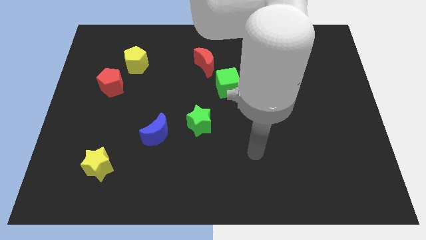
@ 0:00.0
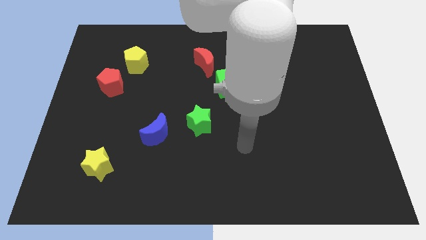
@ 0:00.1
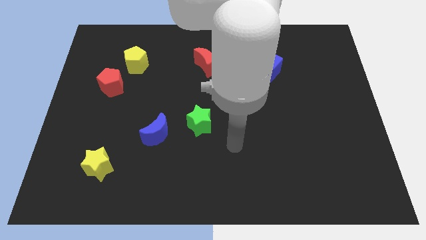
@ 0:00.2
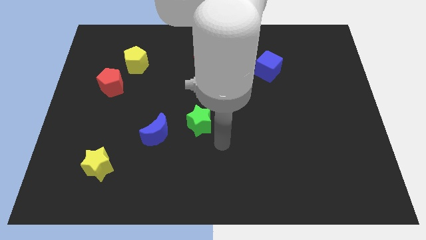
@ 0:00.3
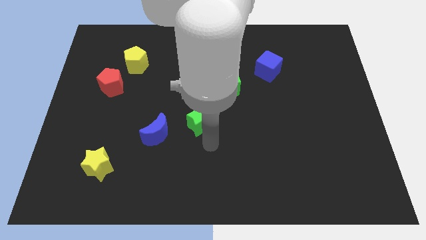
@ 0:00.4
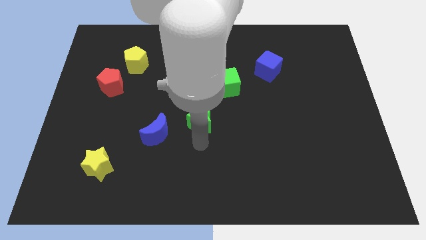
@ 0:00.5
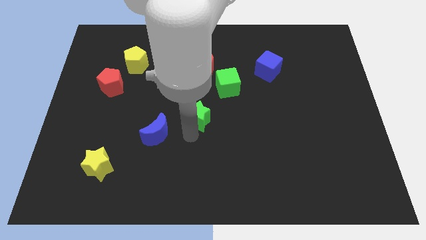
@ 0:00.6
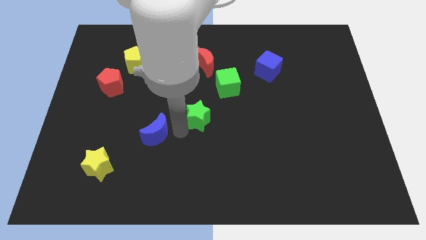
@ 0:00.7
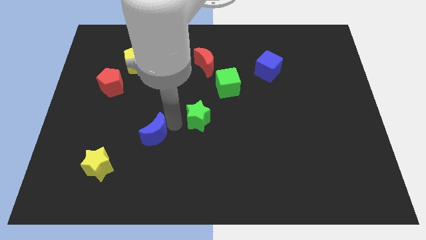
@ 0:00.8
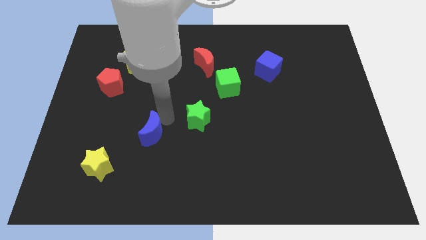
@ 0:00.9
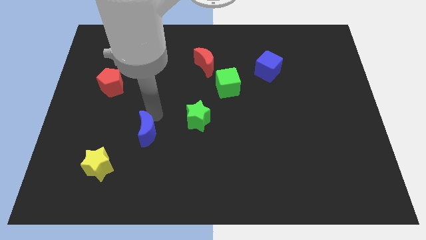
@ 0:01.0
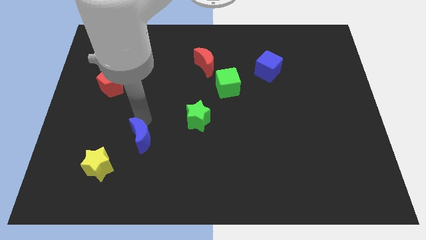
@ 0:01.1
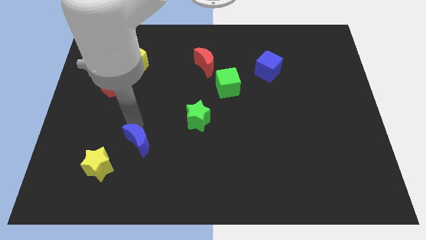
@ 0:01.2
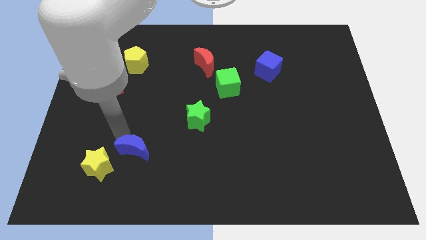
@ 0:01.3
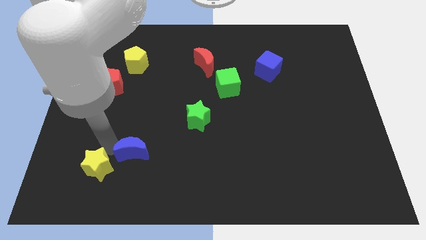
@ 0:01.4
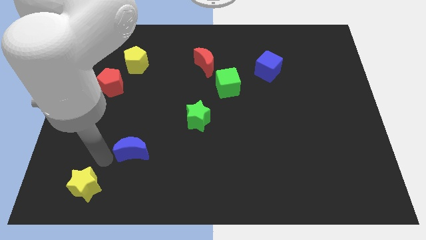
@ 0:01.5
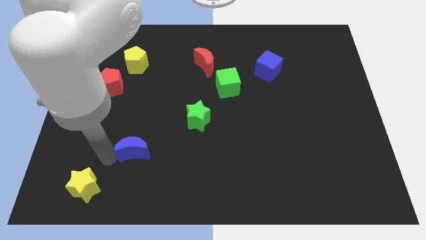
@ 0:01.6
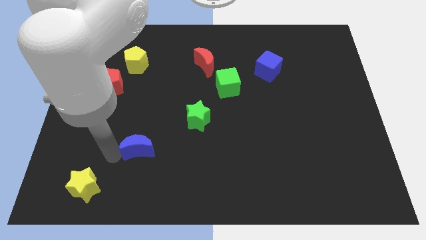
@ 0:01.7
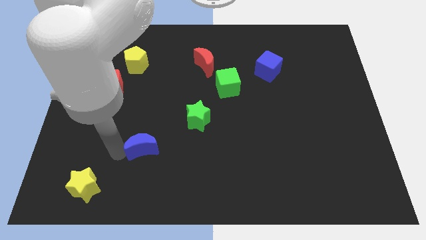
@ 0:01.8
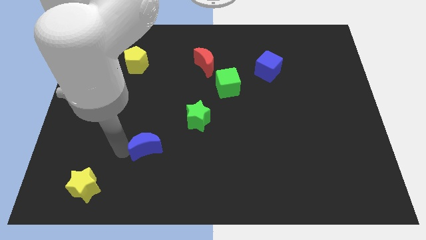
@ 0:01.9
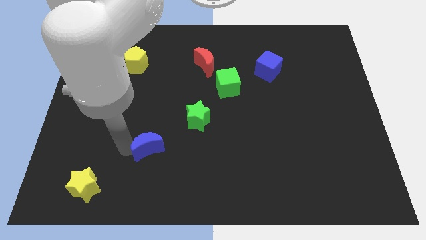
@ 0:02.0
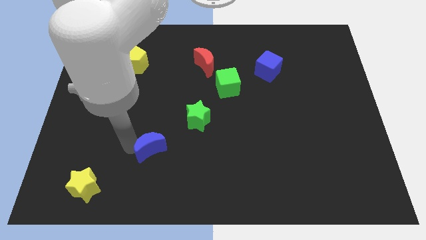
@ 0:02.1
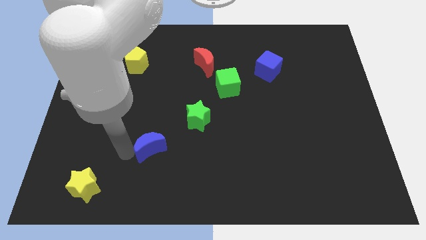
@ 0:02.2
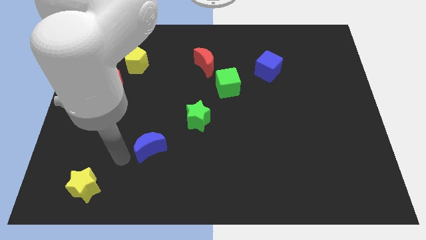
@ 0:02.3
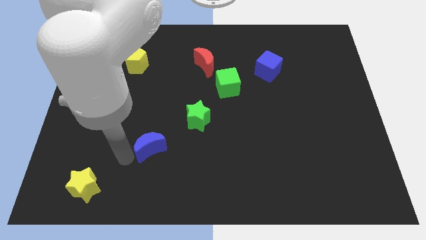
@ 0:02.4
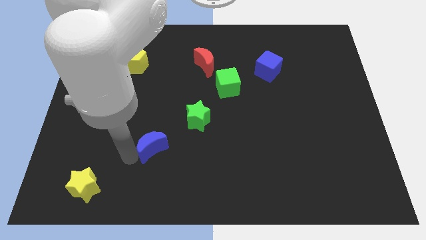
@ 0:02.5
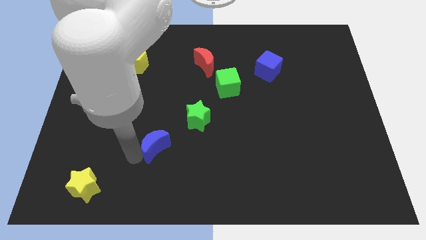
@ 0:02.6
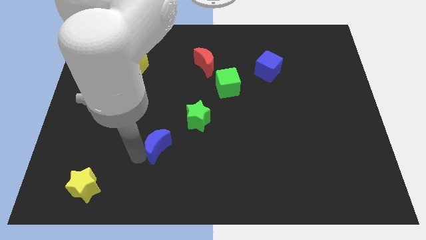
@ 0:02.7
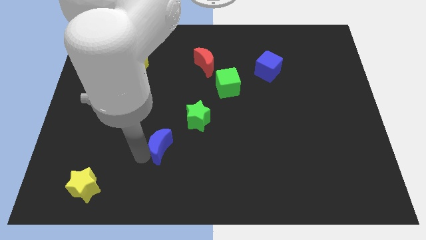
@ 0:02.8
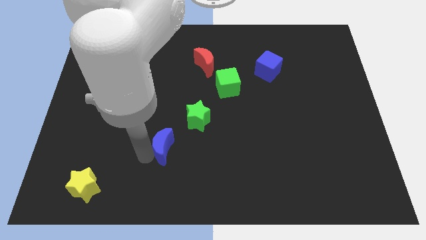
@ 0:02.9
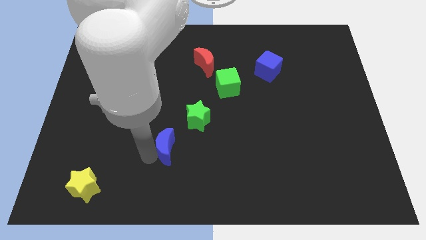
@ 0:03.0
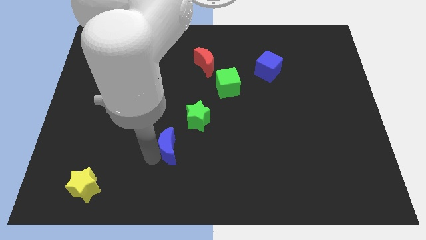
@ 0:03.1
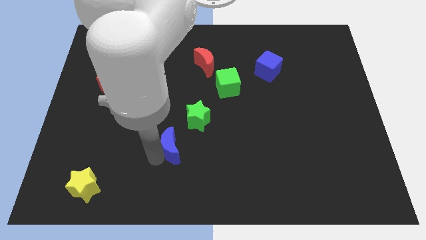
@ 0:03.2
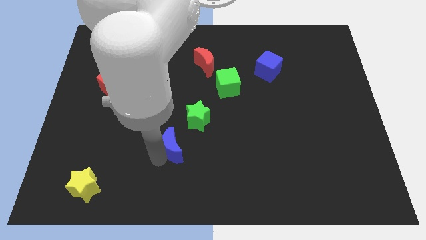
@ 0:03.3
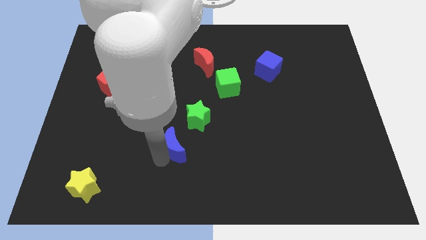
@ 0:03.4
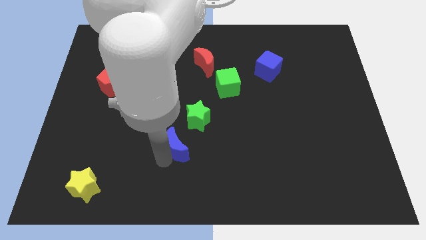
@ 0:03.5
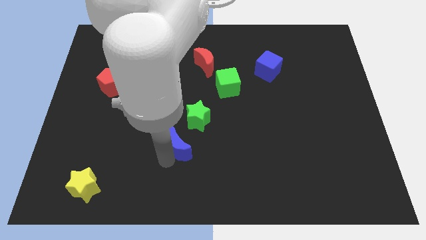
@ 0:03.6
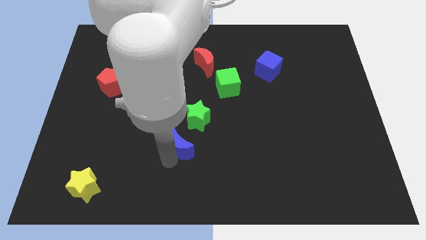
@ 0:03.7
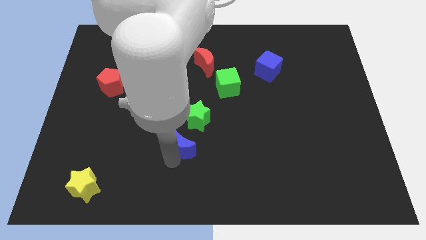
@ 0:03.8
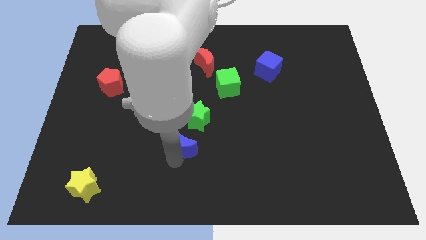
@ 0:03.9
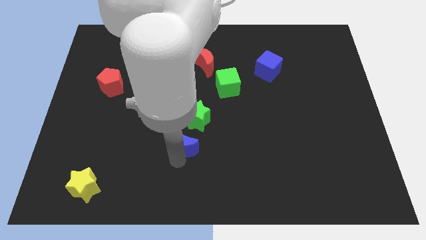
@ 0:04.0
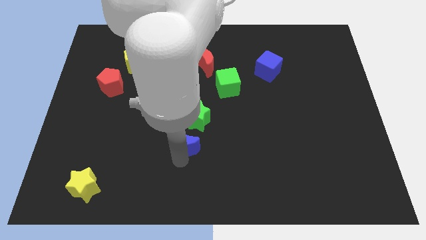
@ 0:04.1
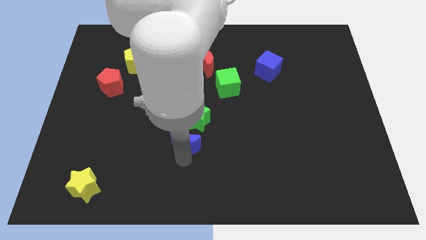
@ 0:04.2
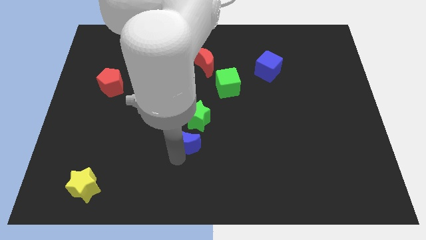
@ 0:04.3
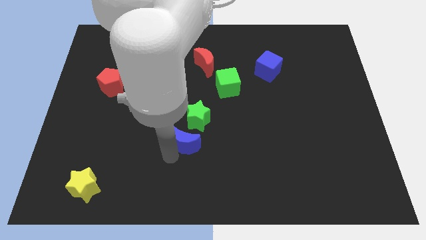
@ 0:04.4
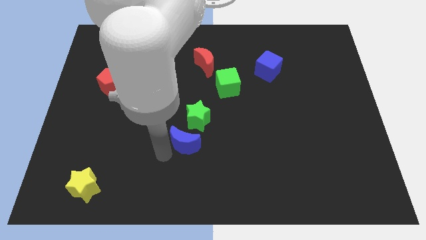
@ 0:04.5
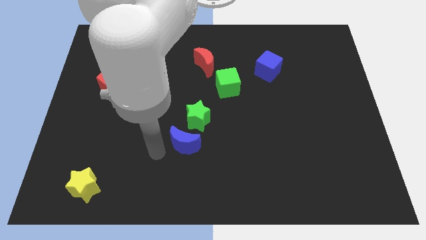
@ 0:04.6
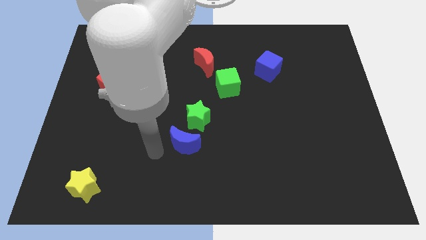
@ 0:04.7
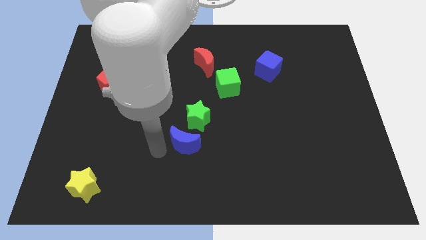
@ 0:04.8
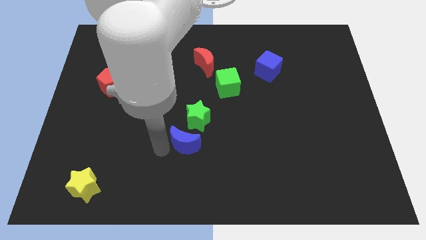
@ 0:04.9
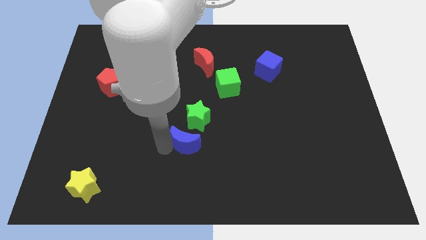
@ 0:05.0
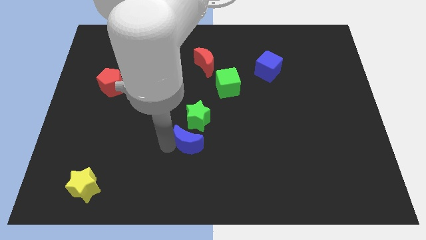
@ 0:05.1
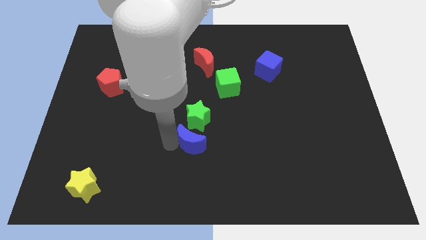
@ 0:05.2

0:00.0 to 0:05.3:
slightly push the blue moon right

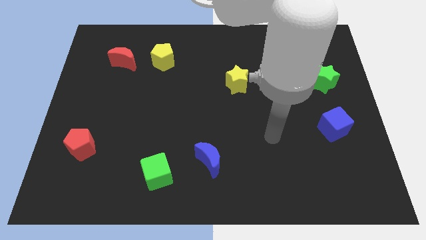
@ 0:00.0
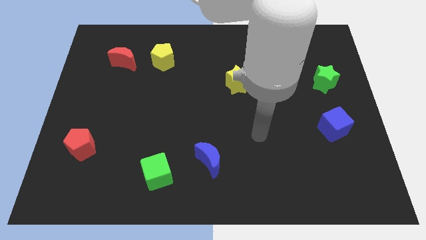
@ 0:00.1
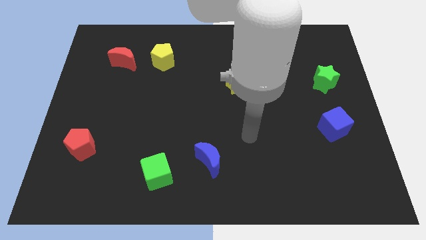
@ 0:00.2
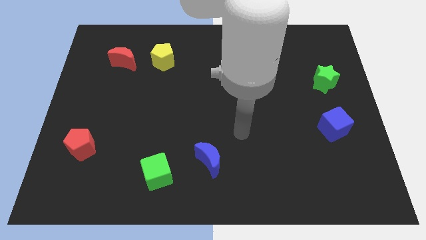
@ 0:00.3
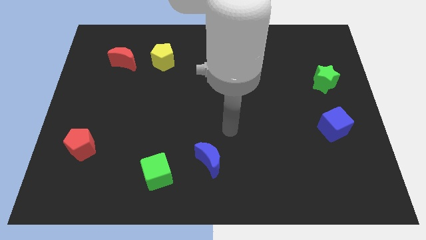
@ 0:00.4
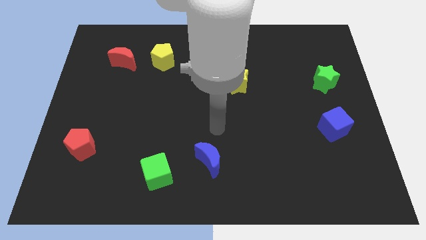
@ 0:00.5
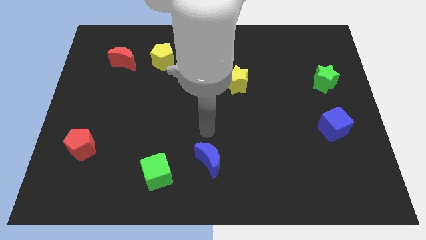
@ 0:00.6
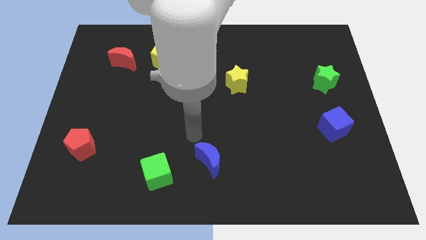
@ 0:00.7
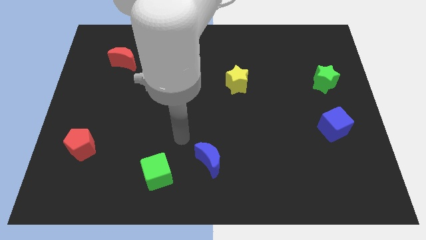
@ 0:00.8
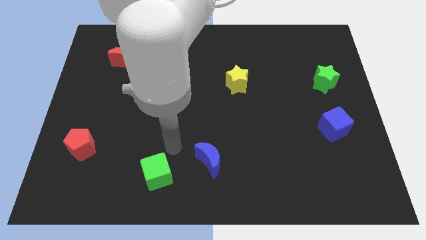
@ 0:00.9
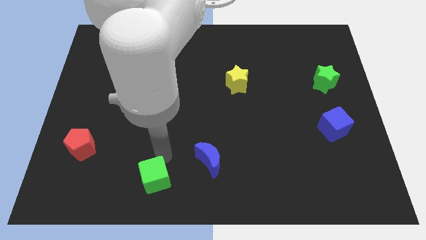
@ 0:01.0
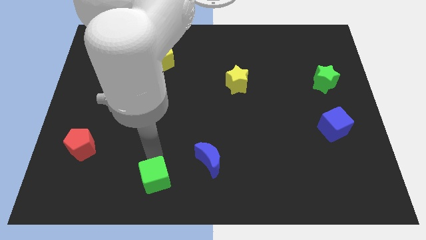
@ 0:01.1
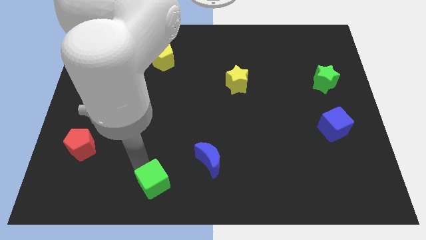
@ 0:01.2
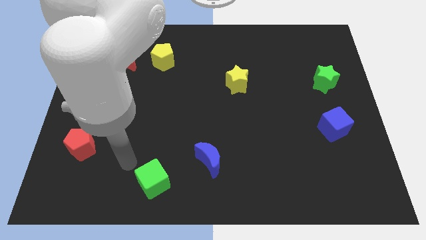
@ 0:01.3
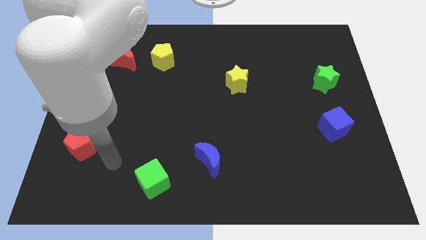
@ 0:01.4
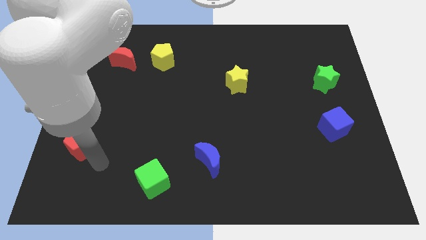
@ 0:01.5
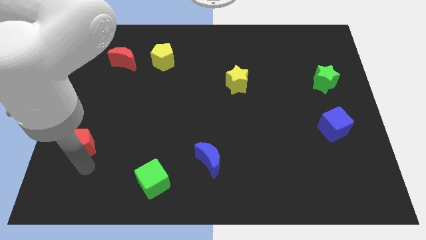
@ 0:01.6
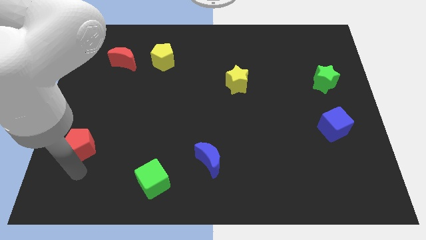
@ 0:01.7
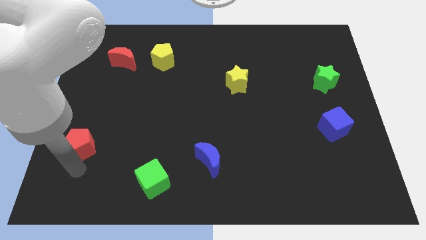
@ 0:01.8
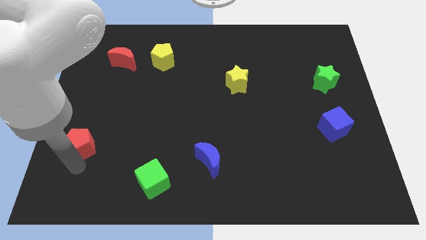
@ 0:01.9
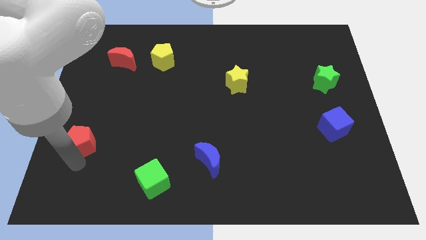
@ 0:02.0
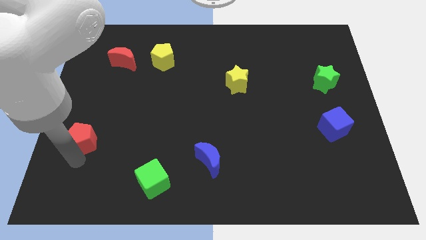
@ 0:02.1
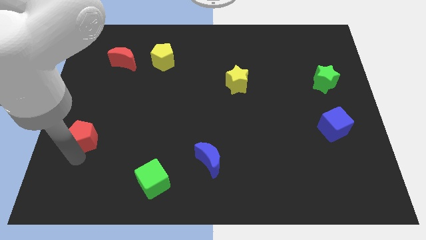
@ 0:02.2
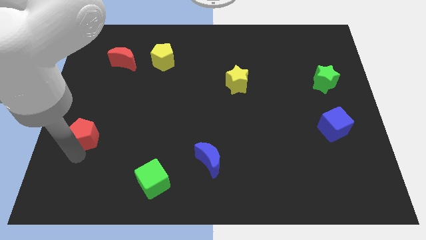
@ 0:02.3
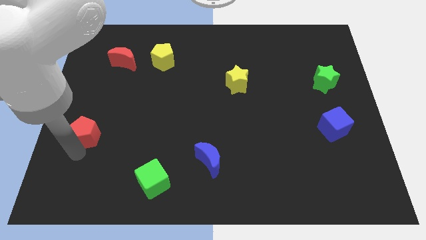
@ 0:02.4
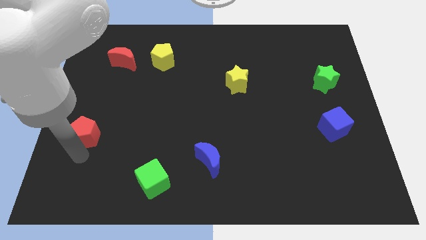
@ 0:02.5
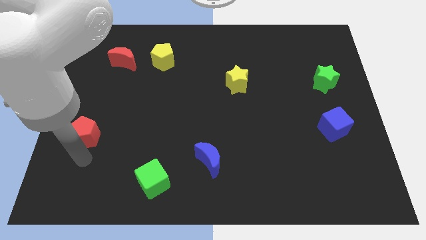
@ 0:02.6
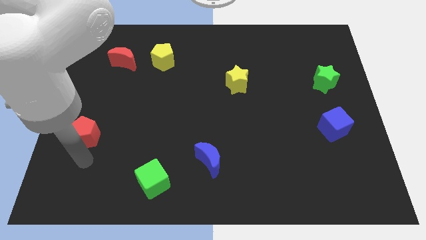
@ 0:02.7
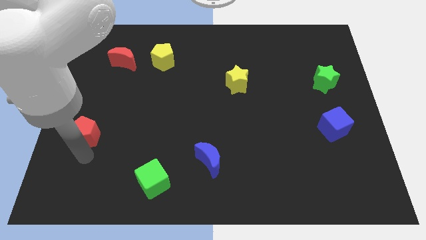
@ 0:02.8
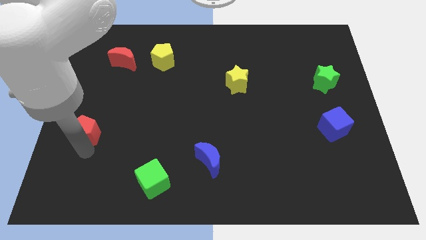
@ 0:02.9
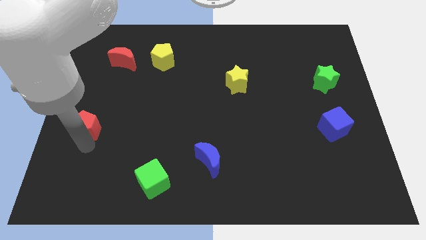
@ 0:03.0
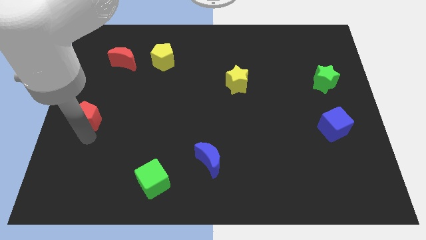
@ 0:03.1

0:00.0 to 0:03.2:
push the red pentagon slightly up
